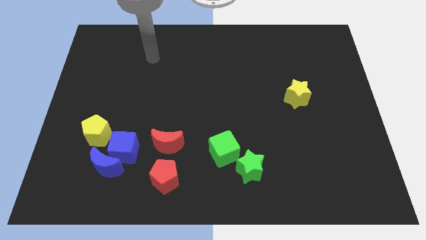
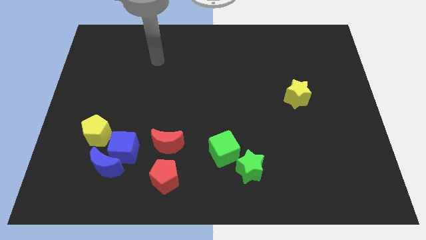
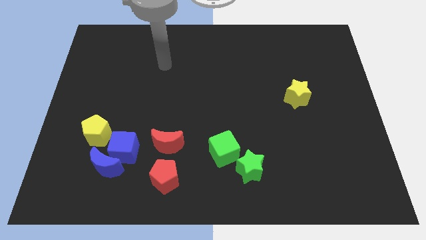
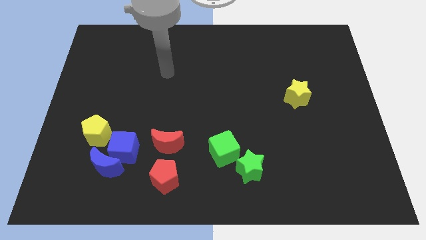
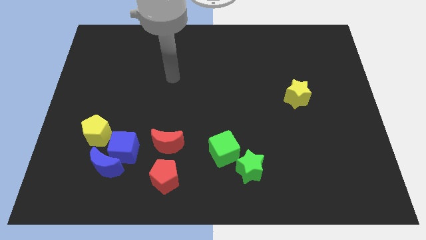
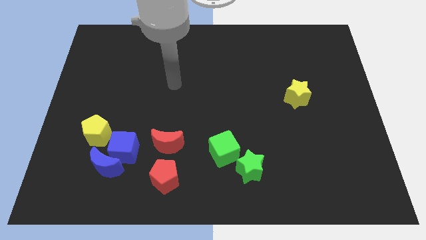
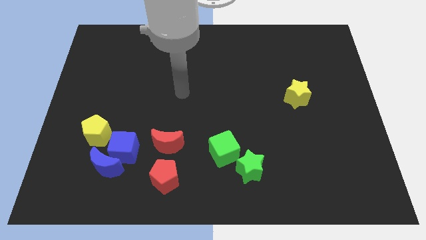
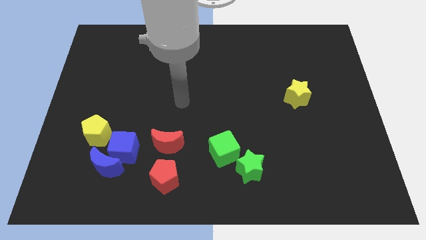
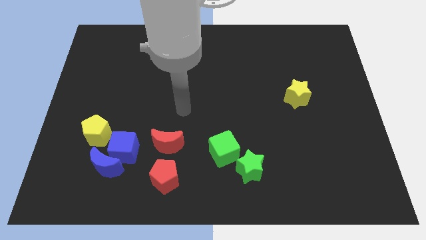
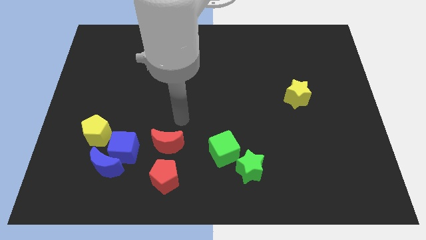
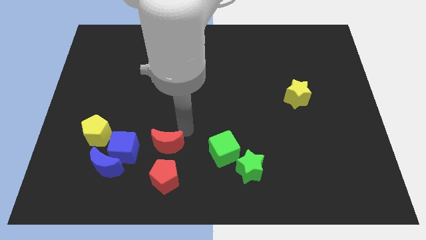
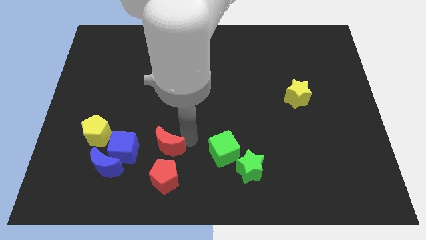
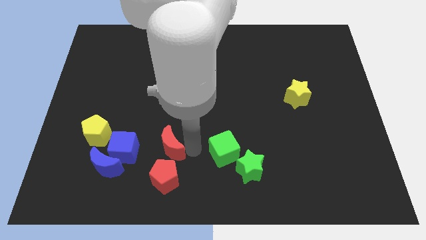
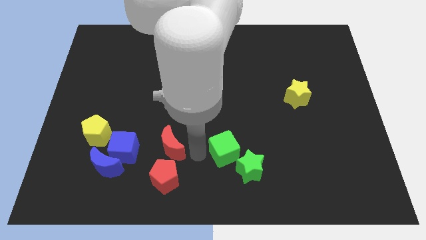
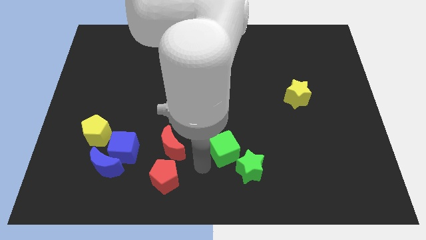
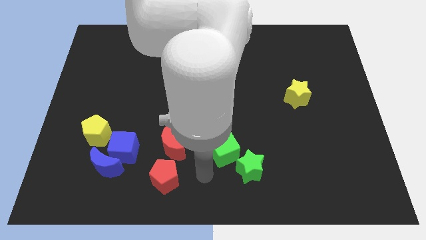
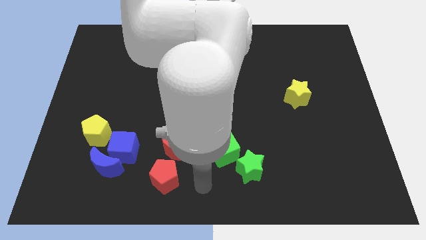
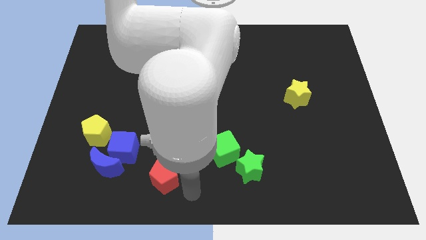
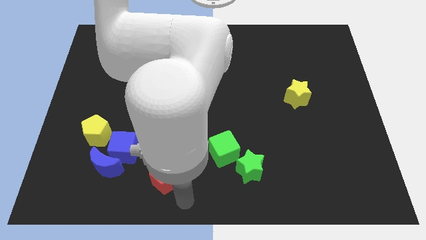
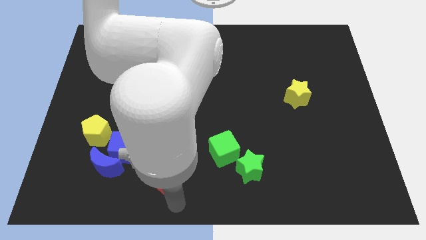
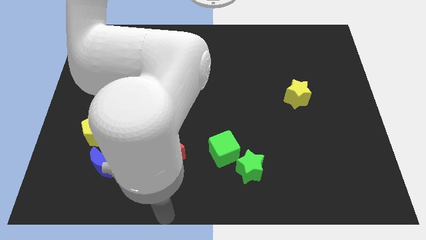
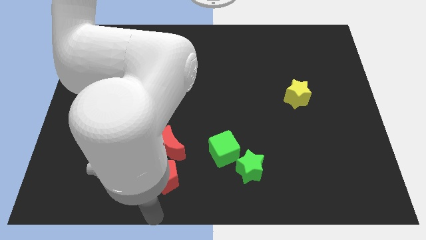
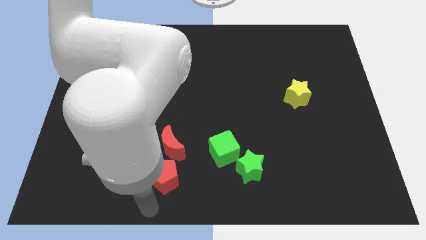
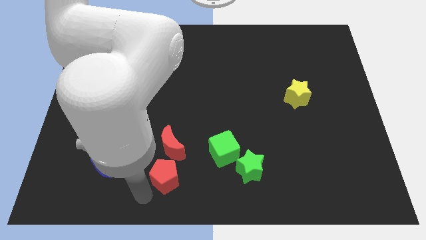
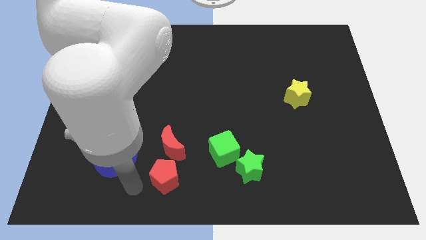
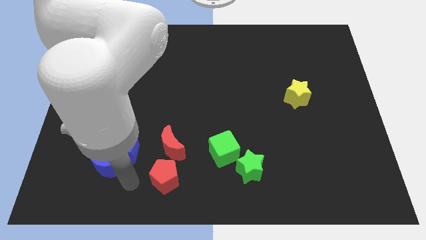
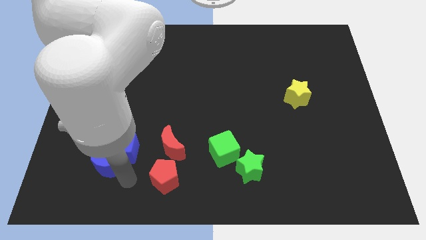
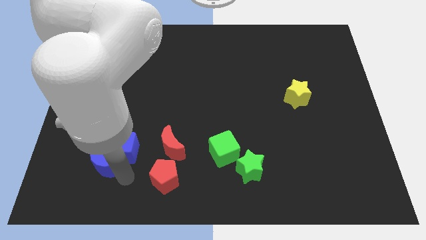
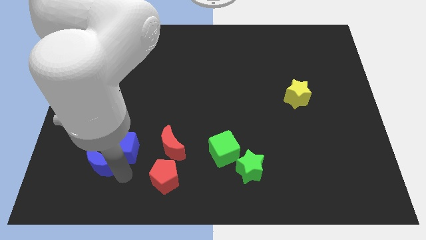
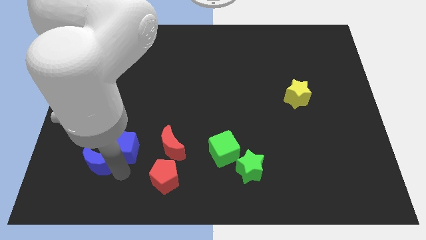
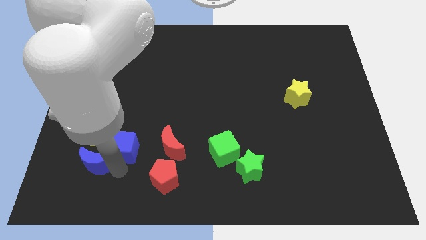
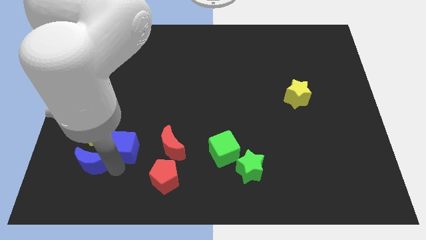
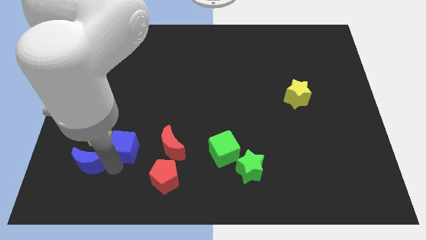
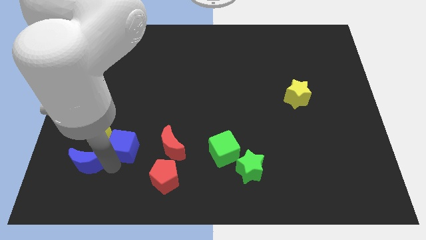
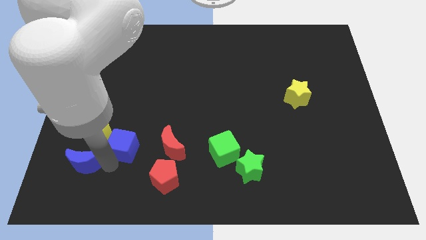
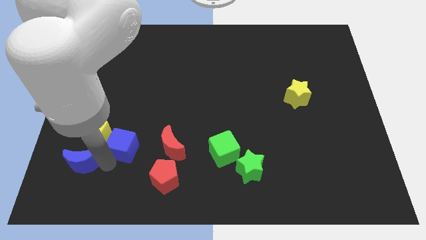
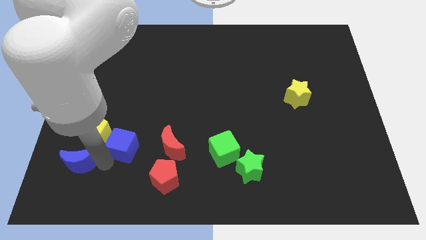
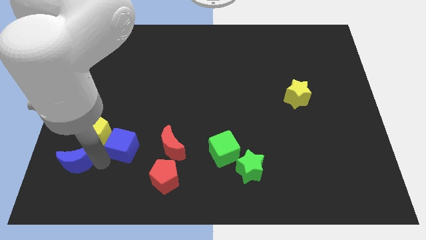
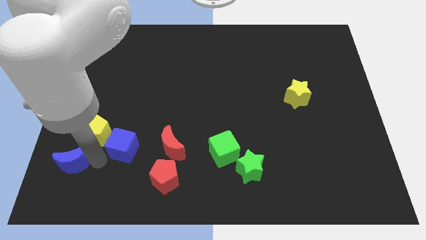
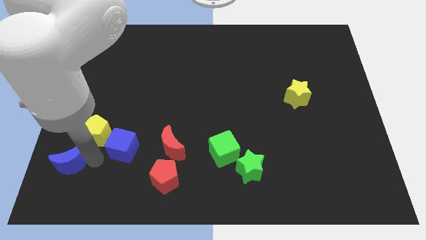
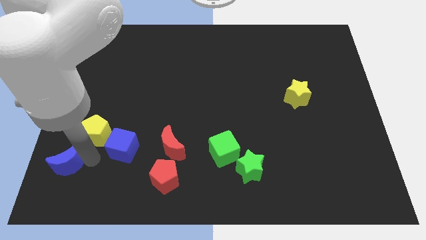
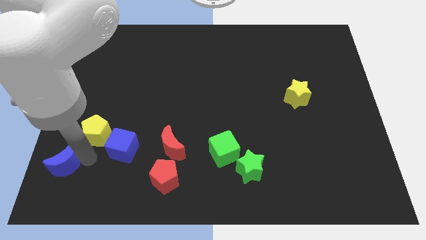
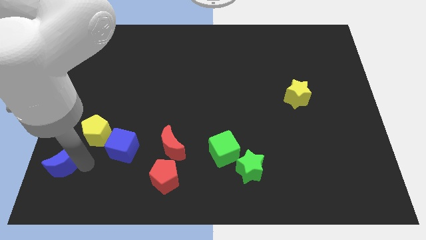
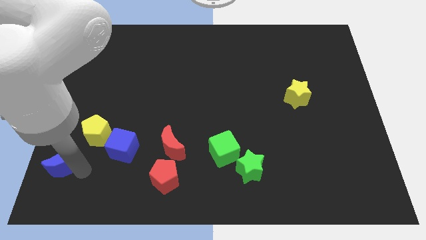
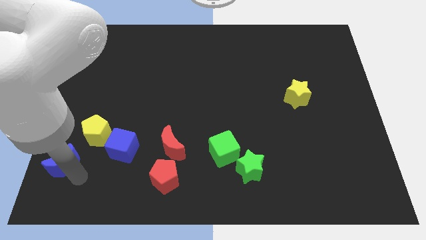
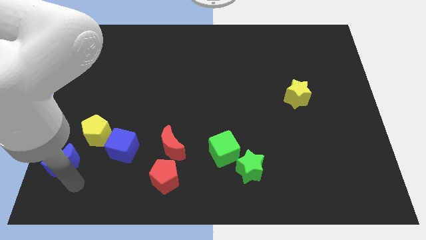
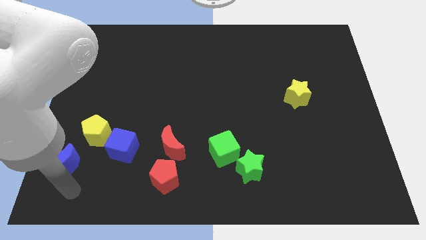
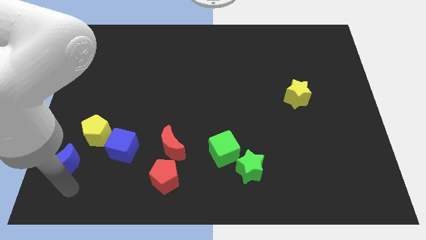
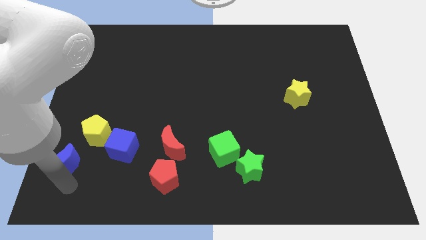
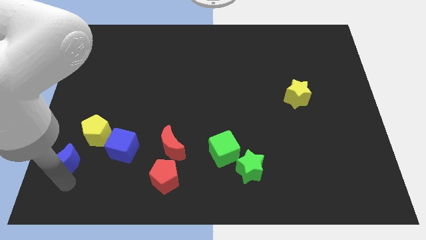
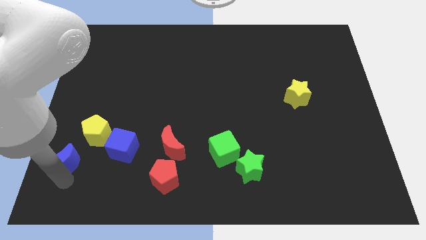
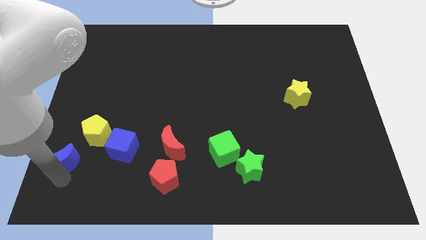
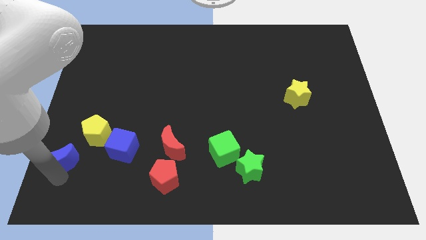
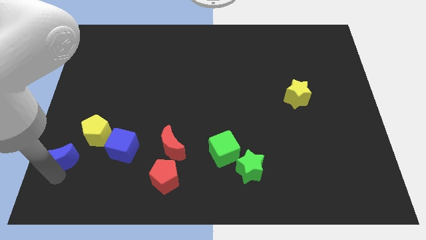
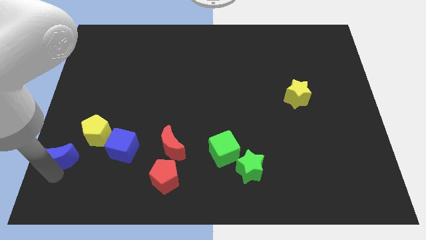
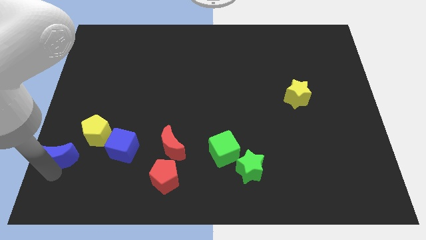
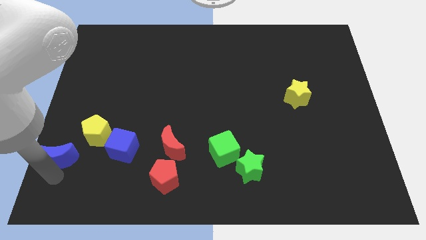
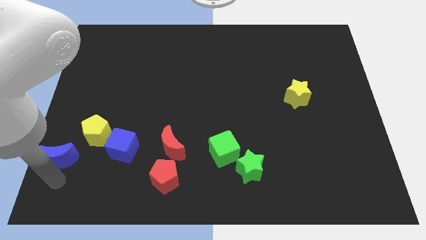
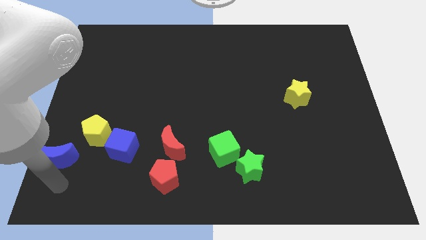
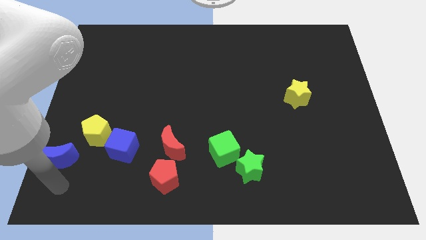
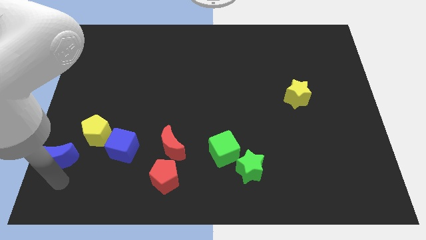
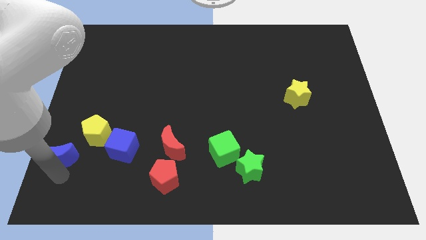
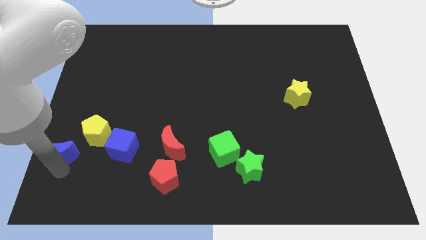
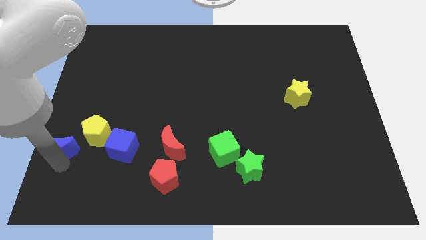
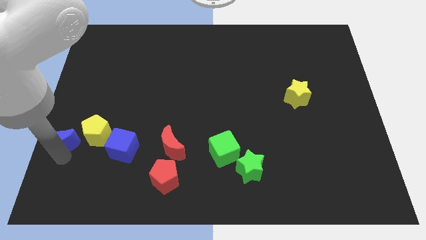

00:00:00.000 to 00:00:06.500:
slide the blue moon to the left side

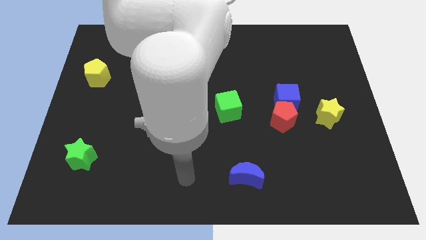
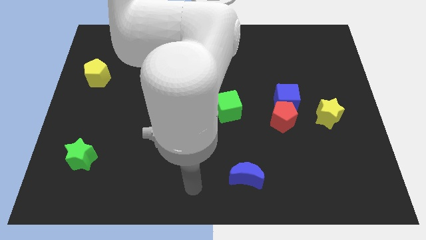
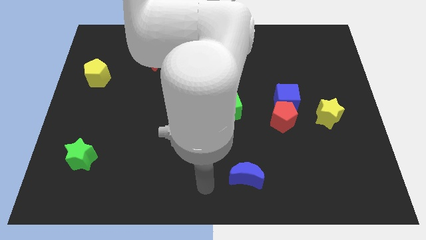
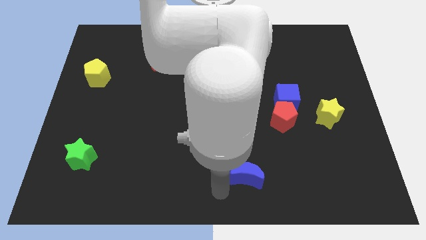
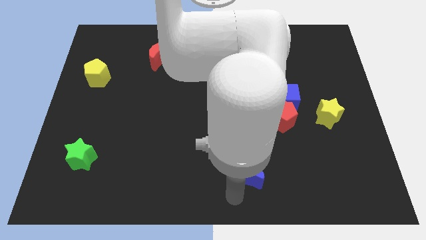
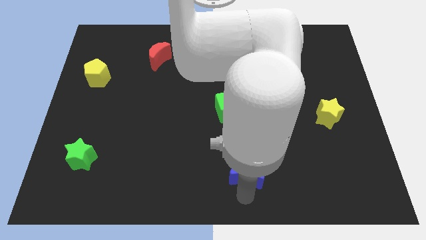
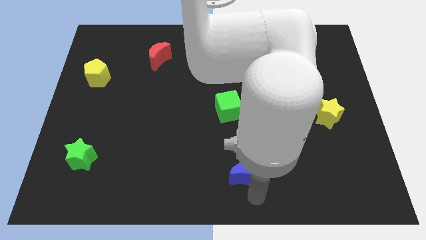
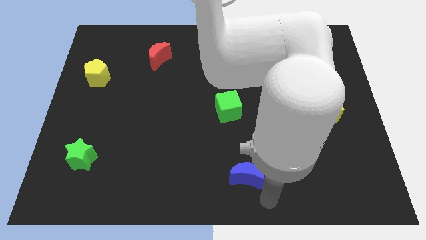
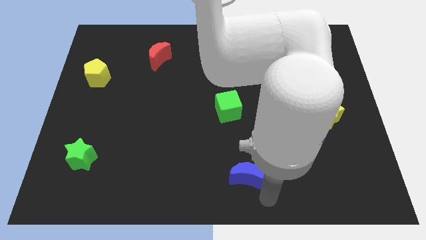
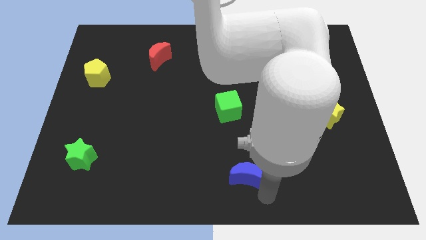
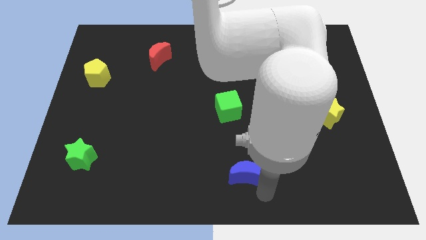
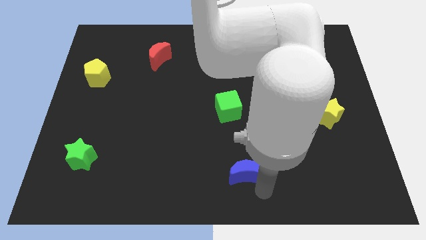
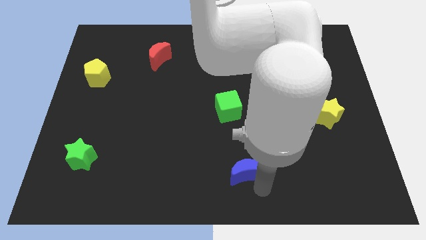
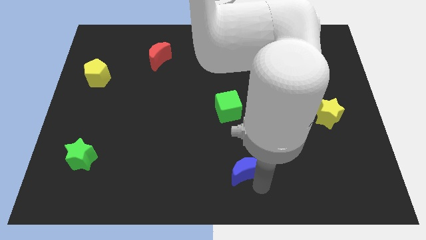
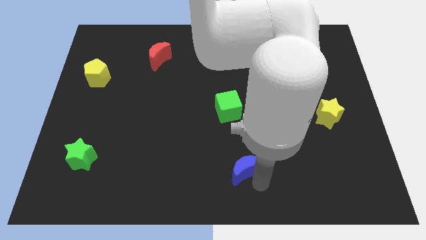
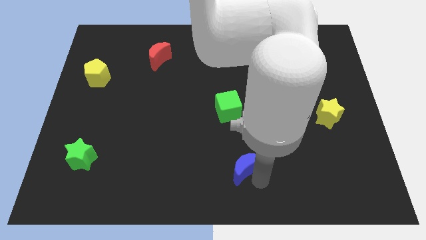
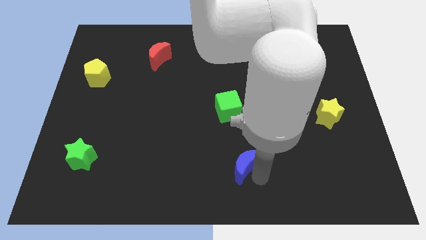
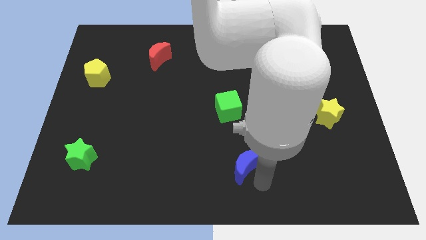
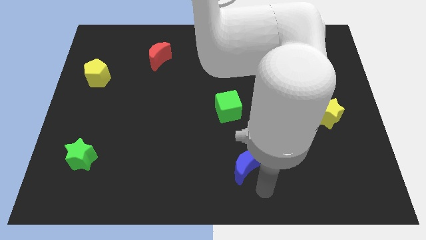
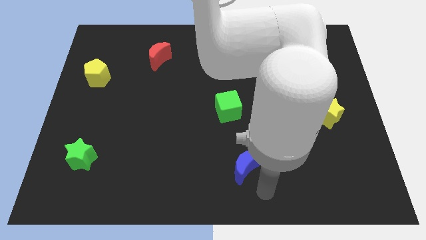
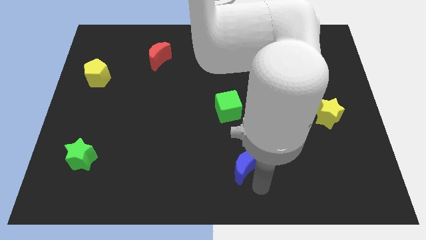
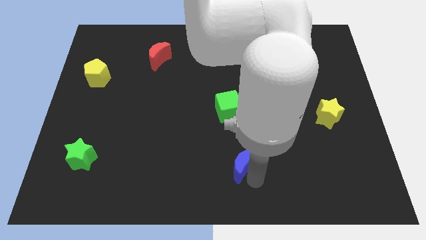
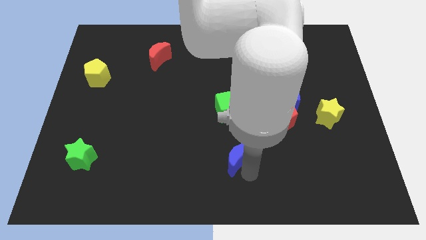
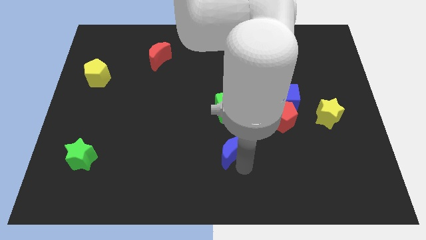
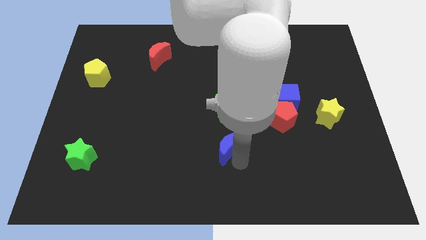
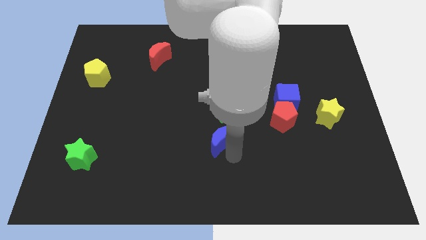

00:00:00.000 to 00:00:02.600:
slide the blue moon to the center
